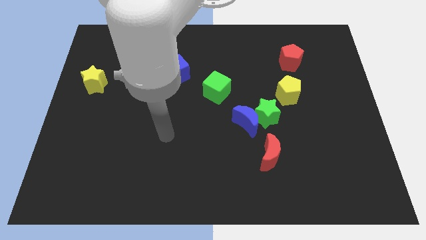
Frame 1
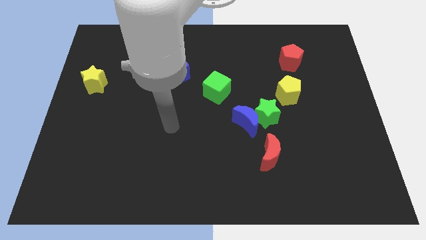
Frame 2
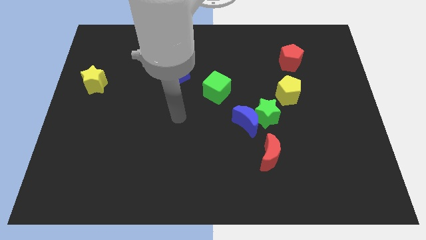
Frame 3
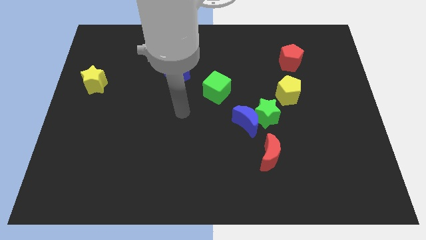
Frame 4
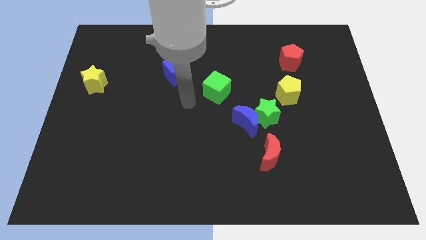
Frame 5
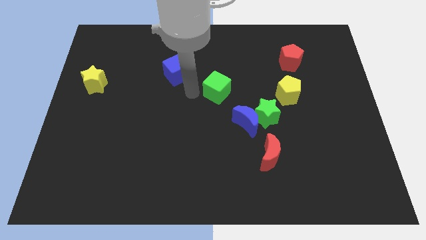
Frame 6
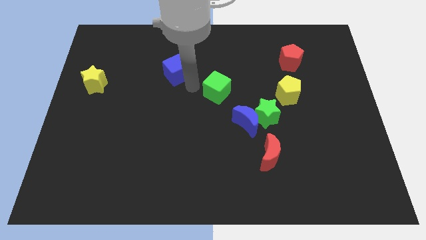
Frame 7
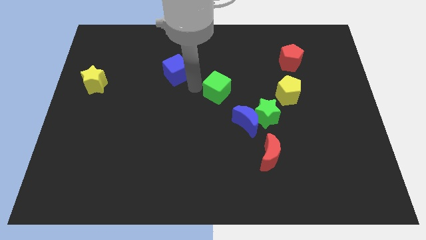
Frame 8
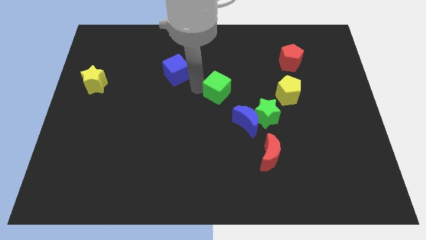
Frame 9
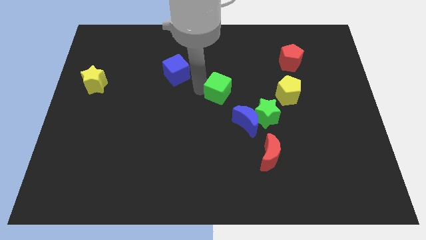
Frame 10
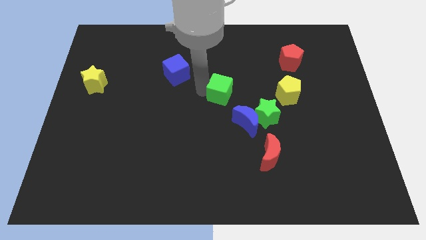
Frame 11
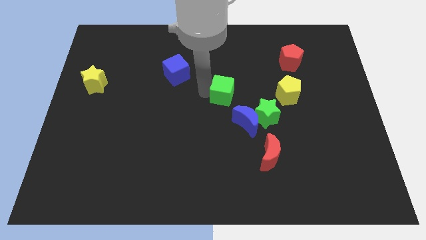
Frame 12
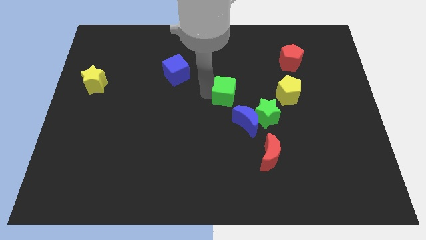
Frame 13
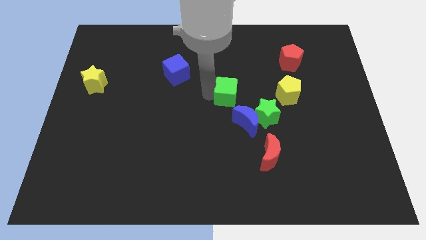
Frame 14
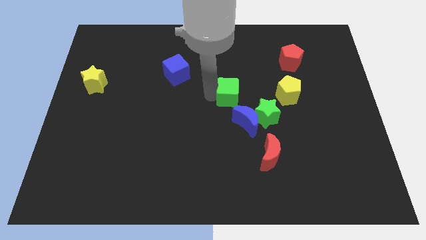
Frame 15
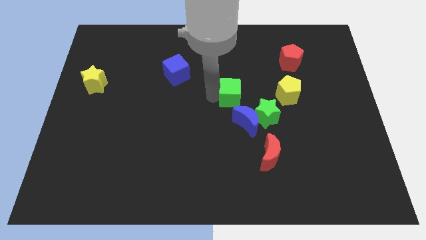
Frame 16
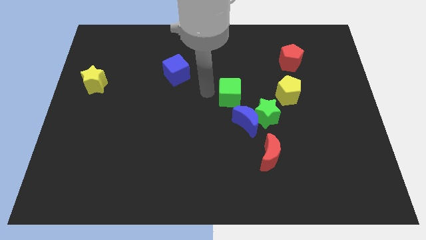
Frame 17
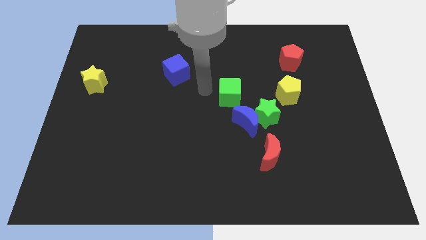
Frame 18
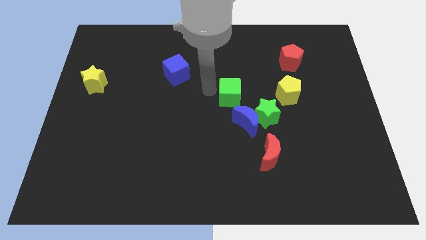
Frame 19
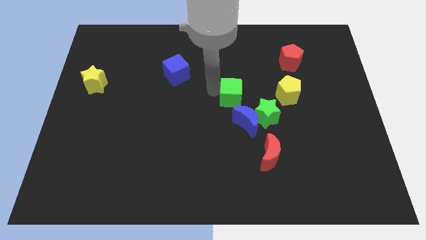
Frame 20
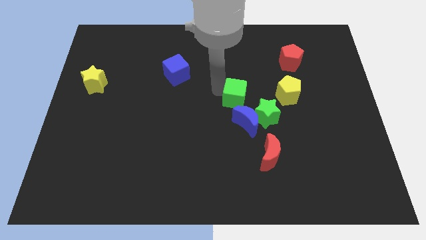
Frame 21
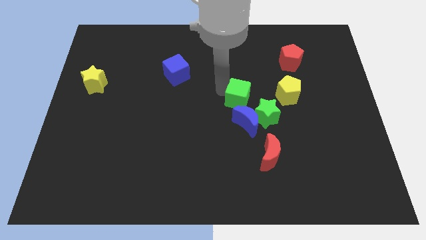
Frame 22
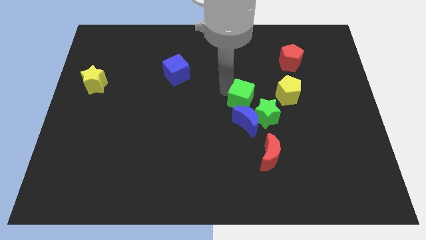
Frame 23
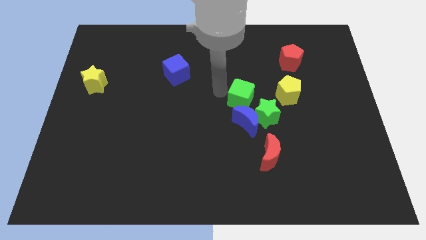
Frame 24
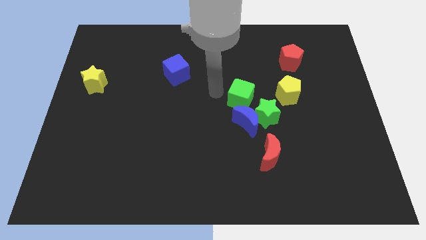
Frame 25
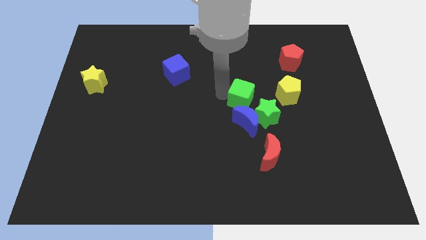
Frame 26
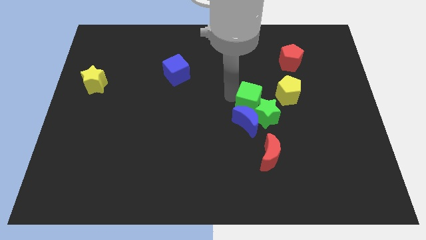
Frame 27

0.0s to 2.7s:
move the green cube down and right diagonally a bit

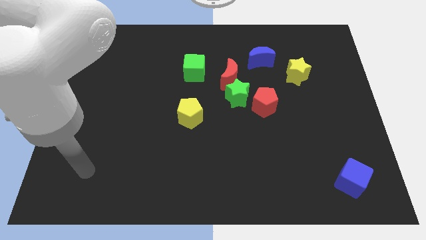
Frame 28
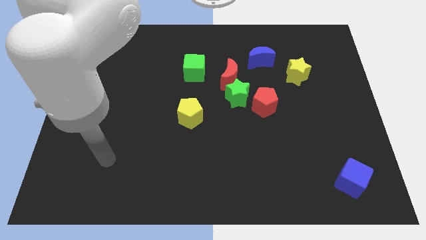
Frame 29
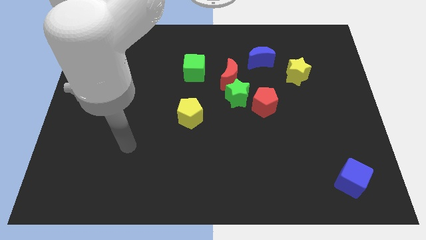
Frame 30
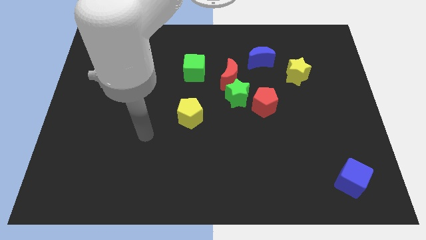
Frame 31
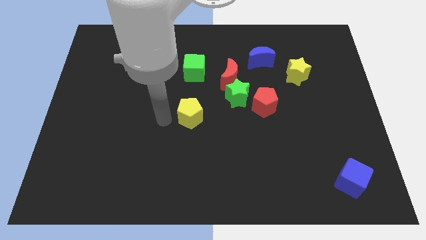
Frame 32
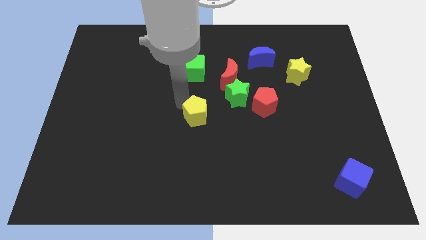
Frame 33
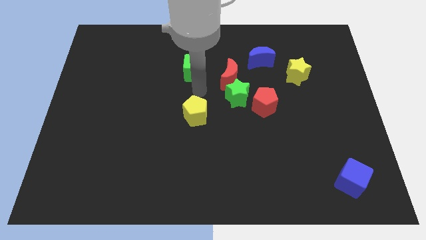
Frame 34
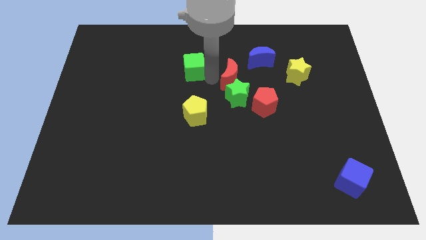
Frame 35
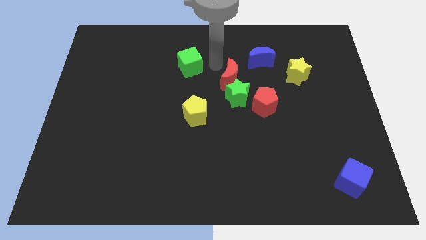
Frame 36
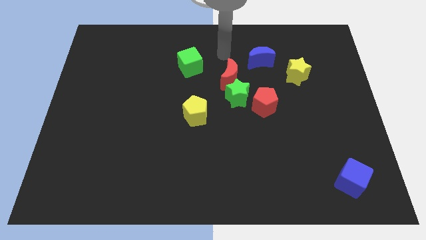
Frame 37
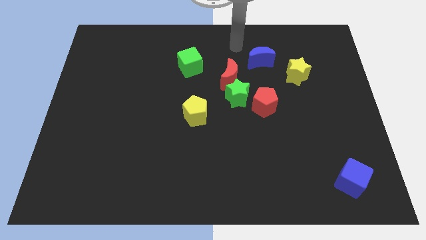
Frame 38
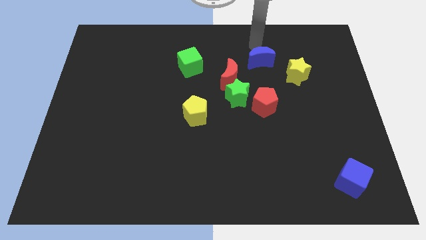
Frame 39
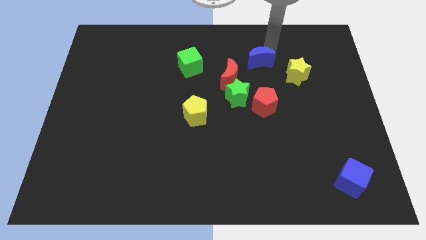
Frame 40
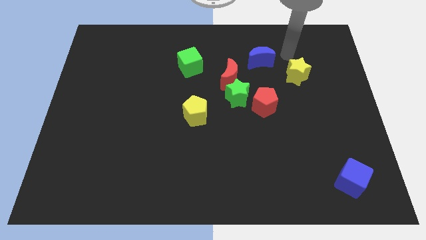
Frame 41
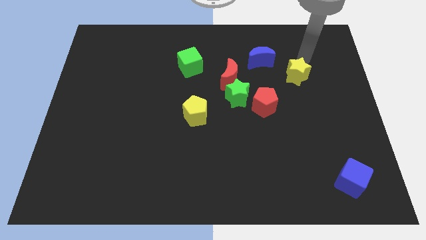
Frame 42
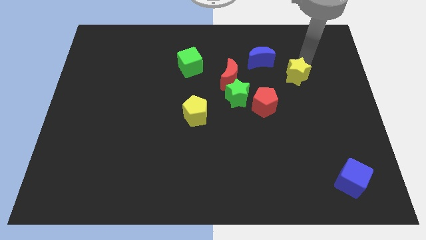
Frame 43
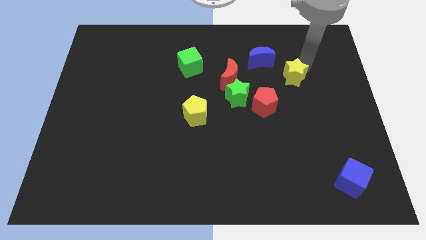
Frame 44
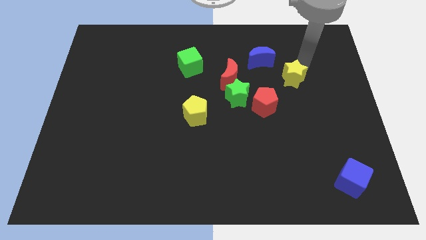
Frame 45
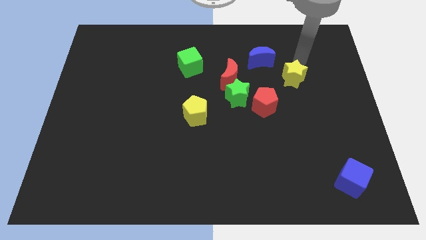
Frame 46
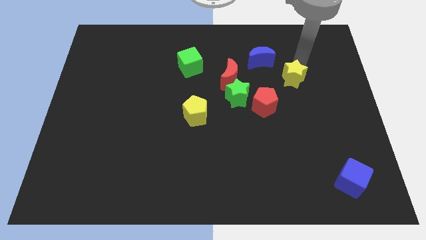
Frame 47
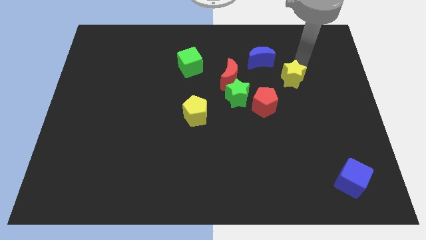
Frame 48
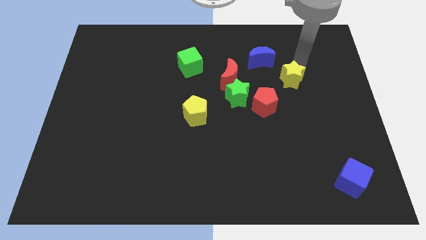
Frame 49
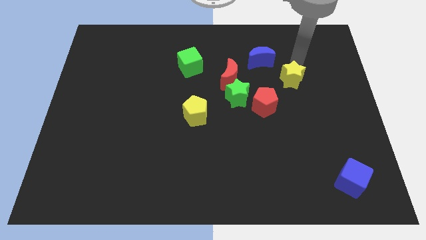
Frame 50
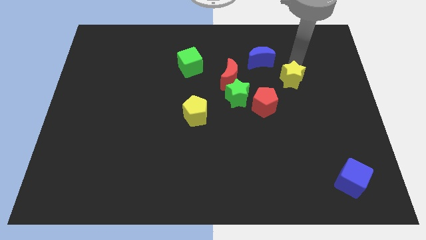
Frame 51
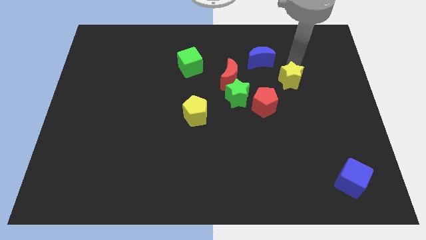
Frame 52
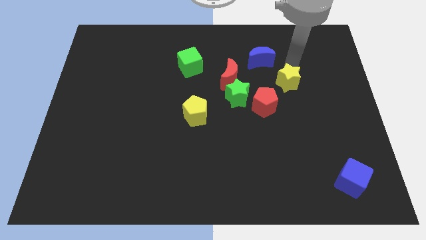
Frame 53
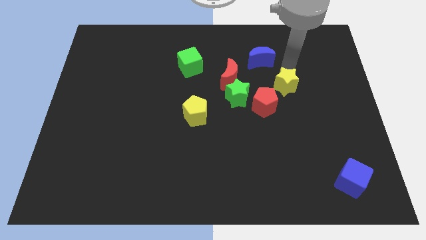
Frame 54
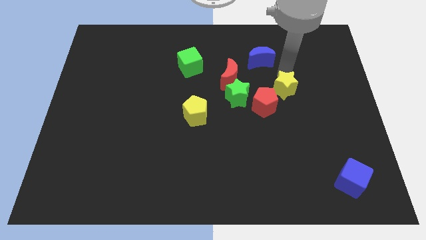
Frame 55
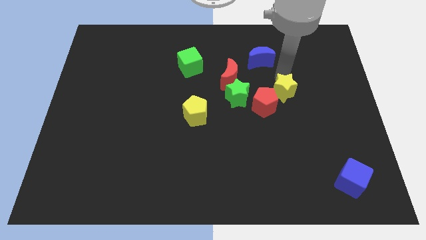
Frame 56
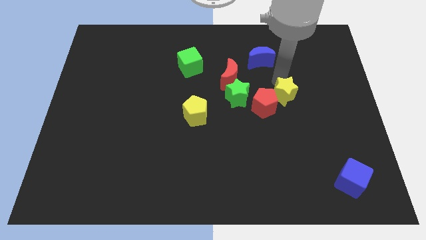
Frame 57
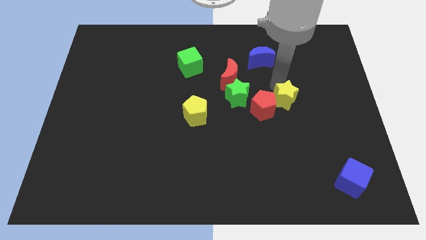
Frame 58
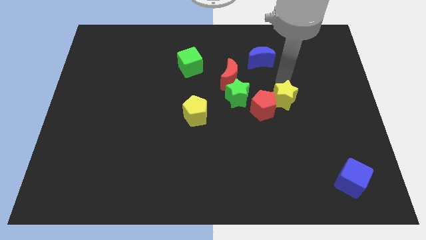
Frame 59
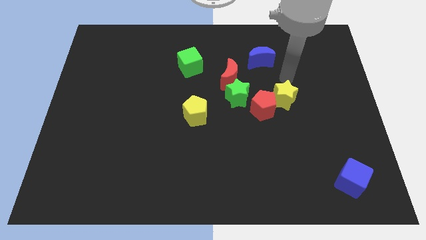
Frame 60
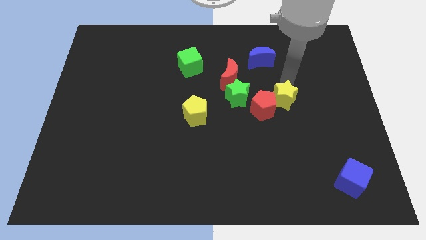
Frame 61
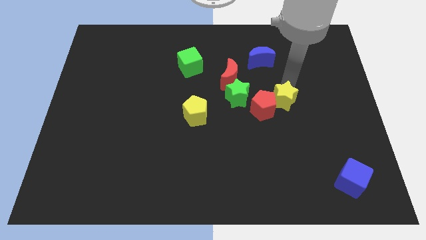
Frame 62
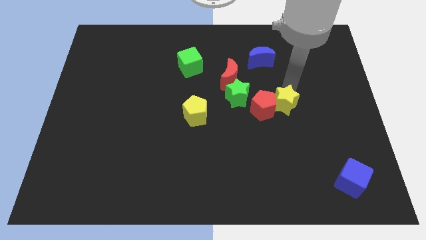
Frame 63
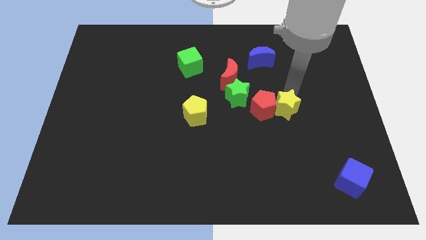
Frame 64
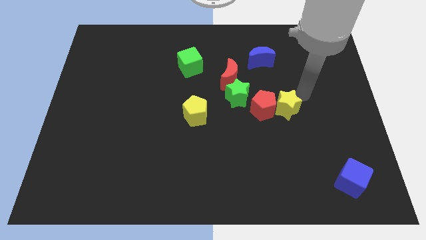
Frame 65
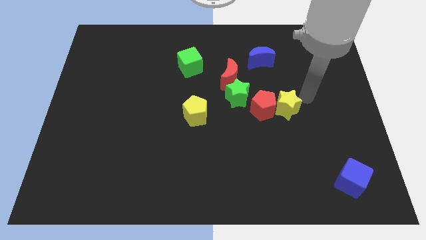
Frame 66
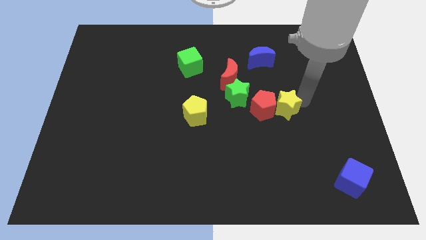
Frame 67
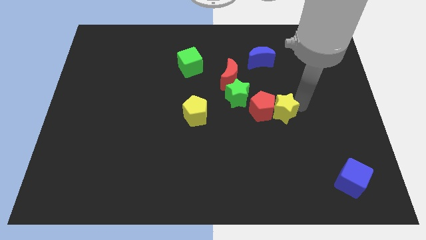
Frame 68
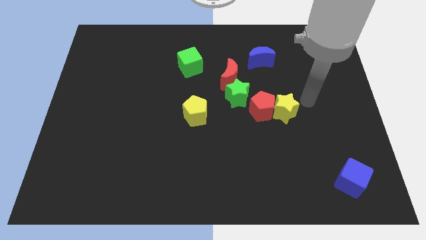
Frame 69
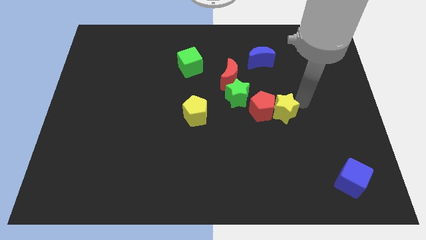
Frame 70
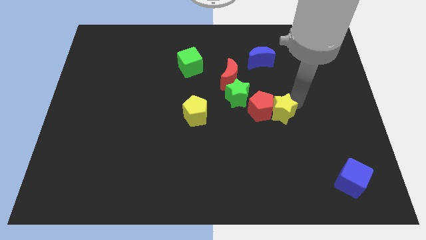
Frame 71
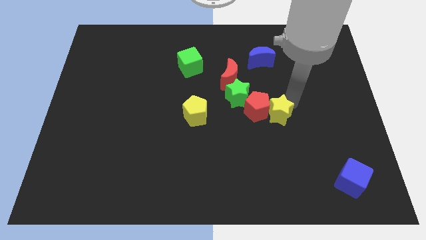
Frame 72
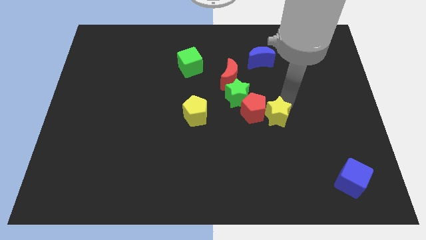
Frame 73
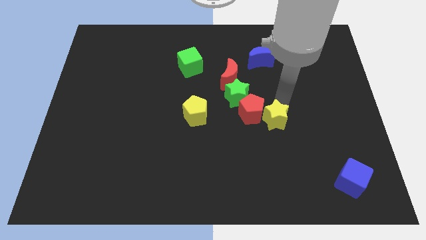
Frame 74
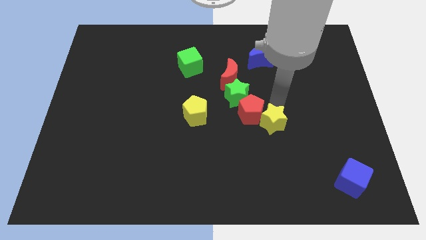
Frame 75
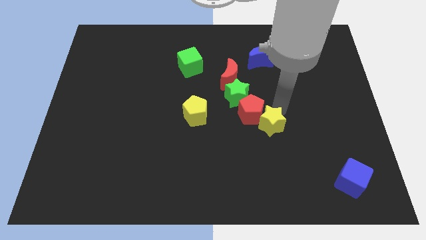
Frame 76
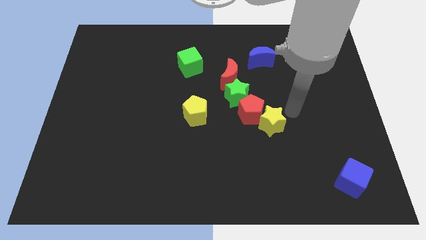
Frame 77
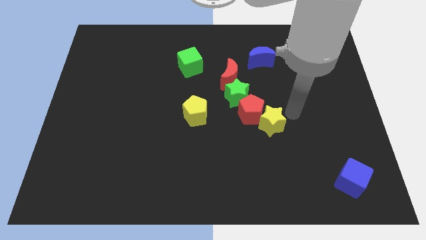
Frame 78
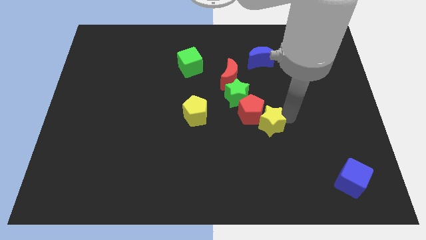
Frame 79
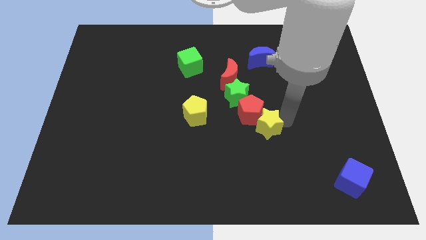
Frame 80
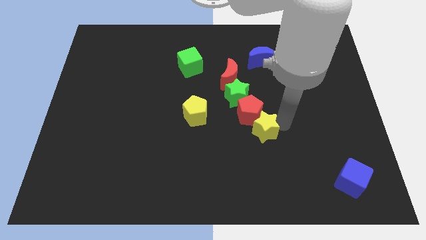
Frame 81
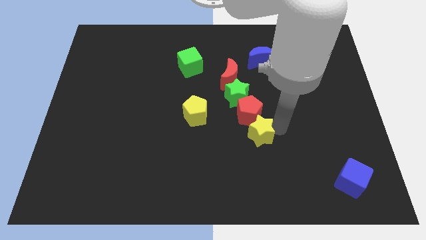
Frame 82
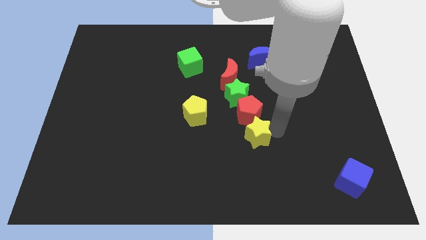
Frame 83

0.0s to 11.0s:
move the yellow star downwards and to the left diagonally
